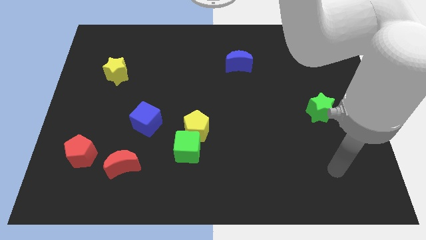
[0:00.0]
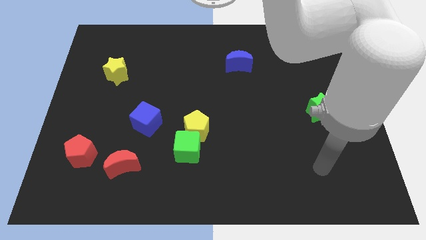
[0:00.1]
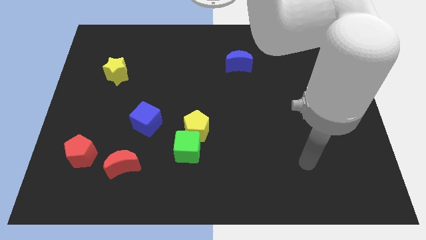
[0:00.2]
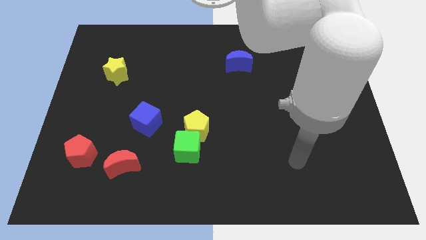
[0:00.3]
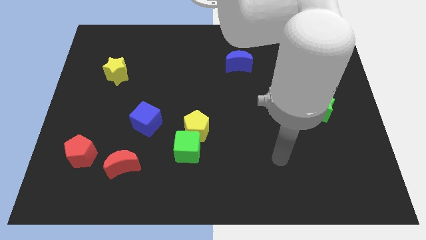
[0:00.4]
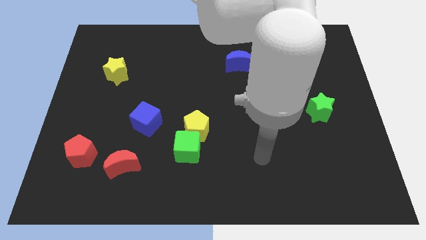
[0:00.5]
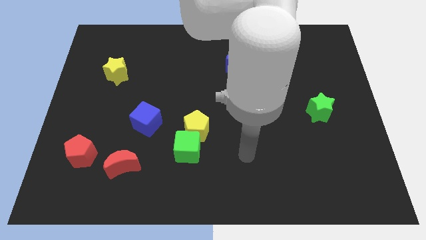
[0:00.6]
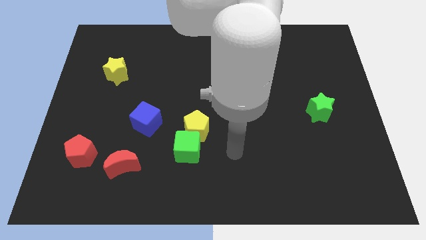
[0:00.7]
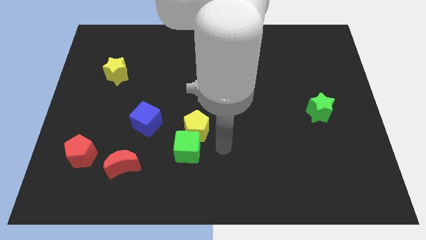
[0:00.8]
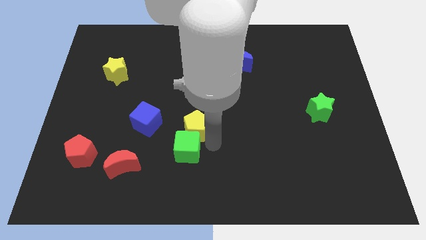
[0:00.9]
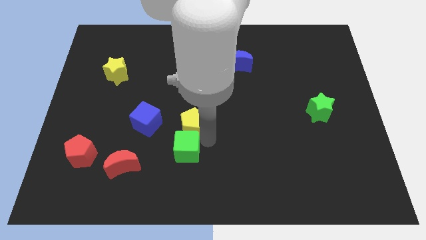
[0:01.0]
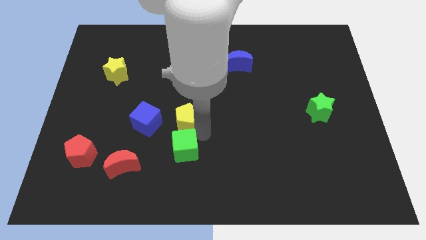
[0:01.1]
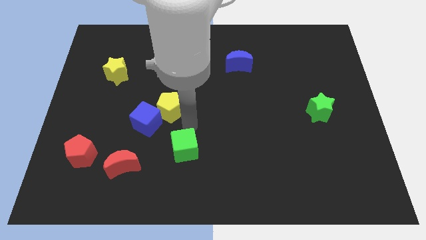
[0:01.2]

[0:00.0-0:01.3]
separate the green cube from the yellow pentagon

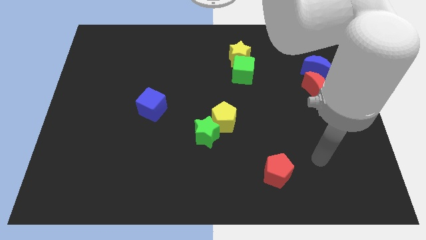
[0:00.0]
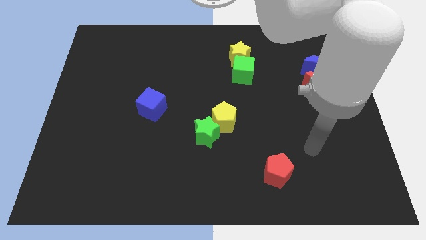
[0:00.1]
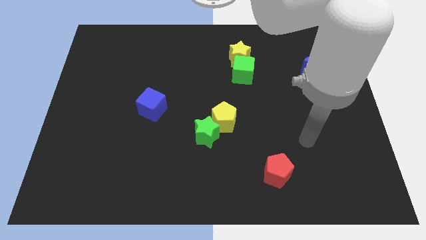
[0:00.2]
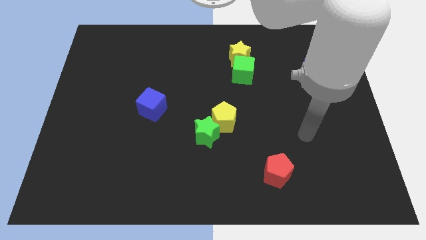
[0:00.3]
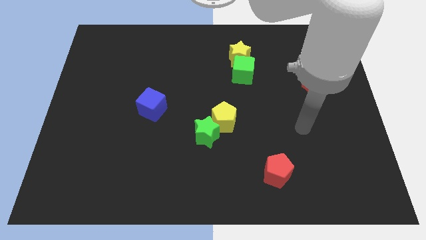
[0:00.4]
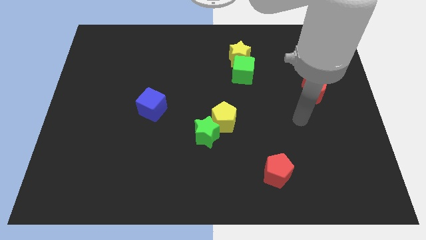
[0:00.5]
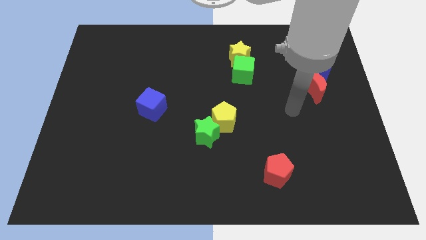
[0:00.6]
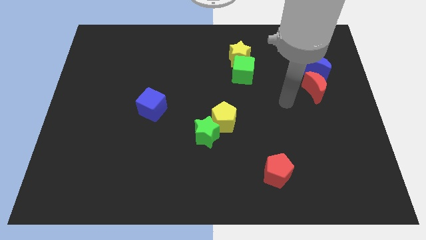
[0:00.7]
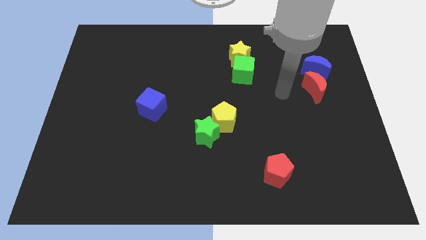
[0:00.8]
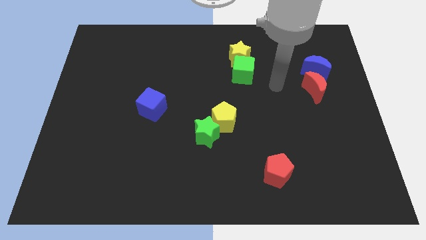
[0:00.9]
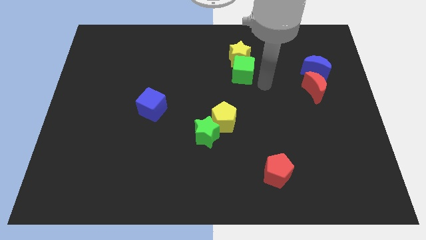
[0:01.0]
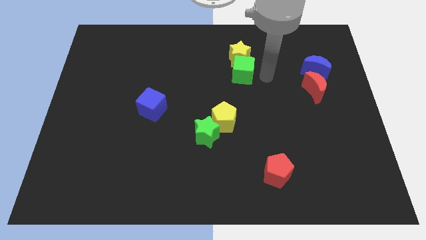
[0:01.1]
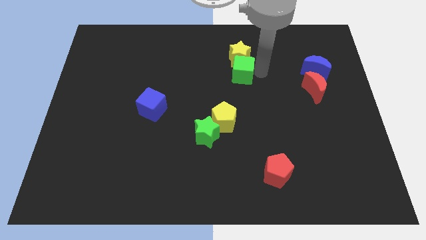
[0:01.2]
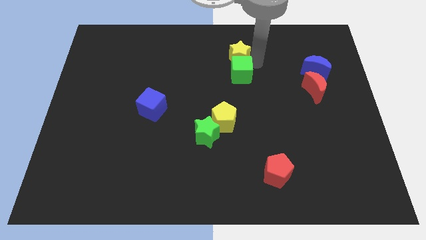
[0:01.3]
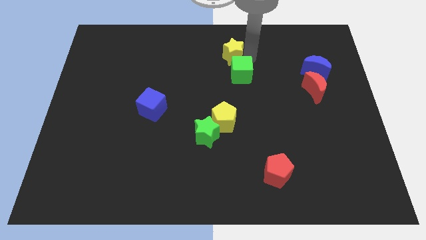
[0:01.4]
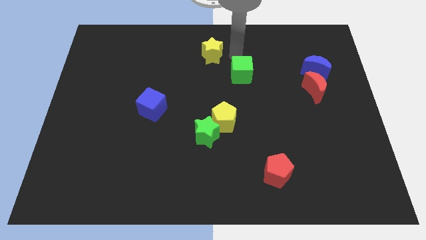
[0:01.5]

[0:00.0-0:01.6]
separate the green cube from the yellow star

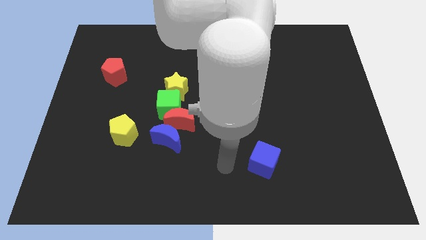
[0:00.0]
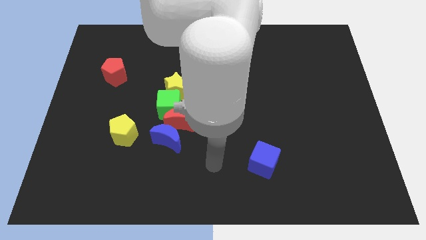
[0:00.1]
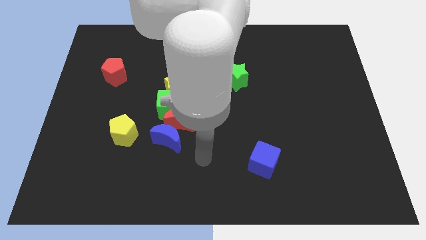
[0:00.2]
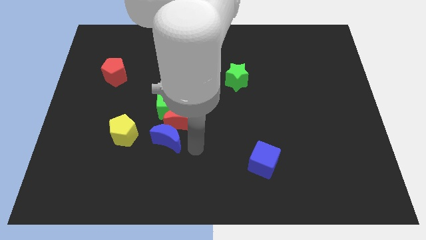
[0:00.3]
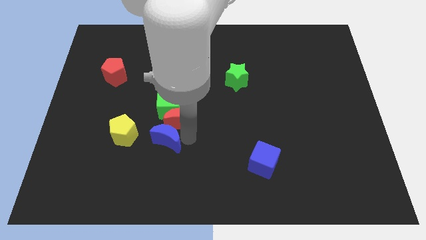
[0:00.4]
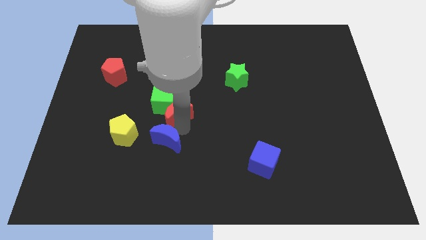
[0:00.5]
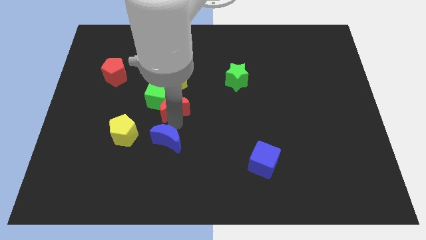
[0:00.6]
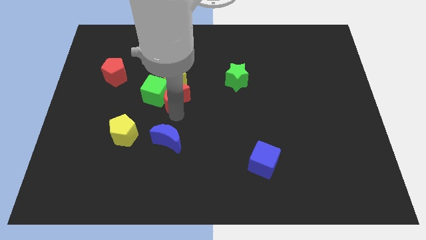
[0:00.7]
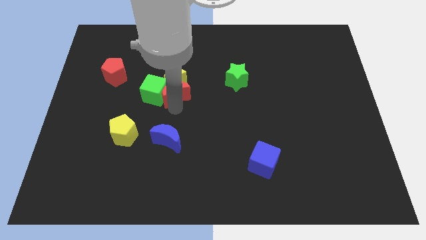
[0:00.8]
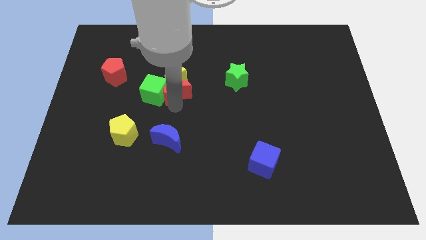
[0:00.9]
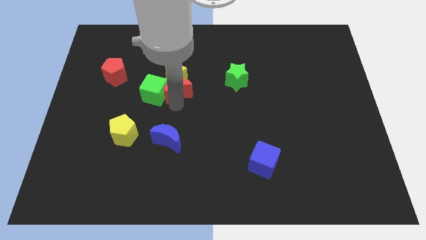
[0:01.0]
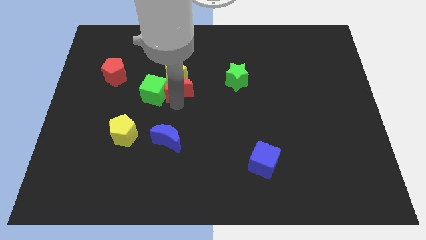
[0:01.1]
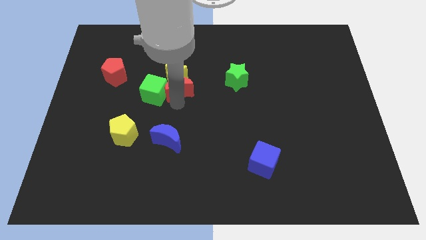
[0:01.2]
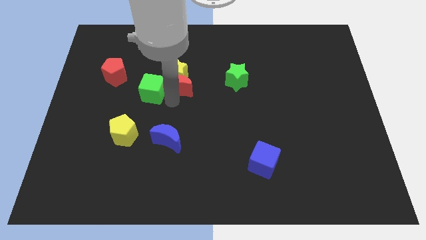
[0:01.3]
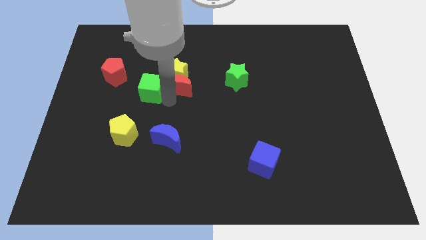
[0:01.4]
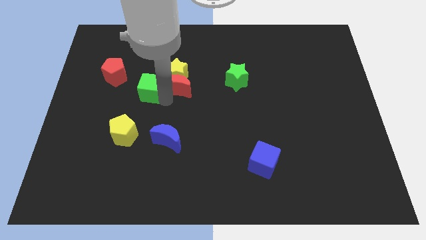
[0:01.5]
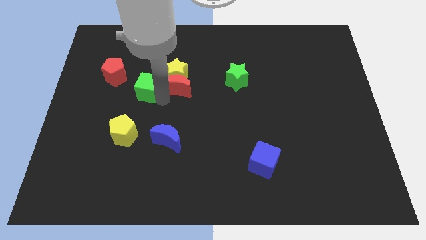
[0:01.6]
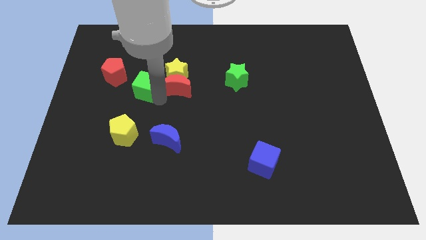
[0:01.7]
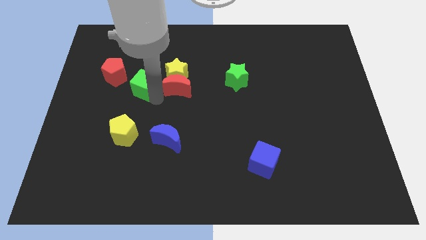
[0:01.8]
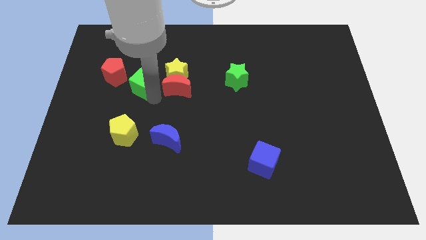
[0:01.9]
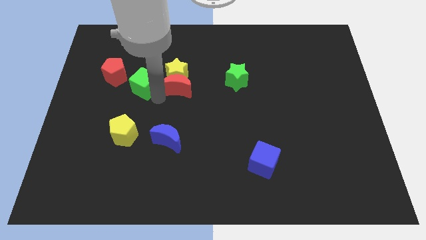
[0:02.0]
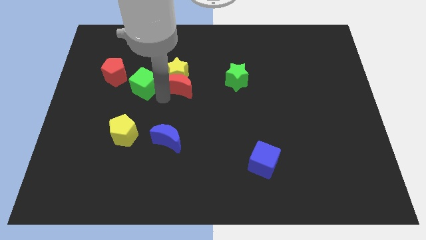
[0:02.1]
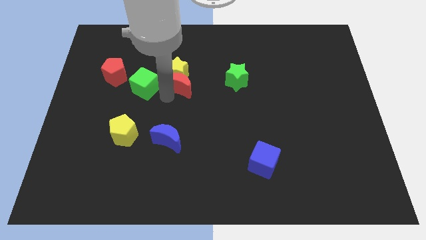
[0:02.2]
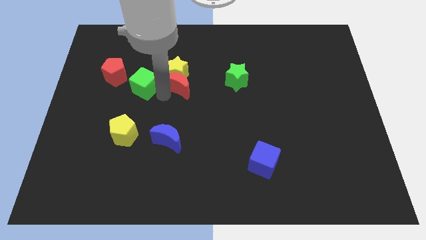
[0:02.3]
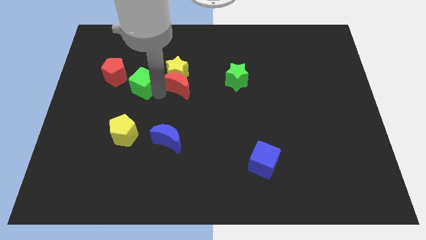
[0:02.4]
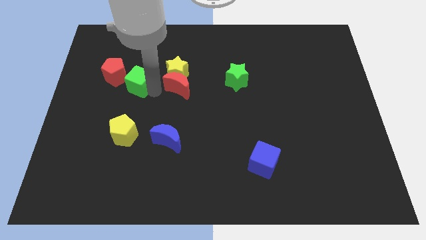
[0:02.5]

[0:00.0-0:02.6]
move the green cube away from the clump

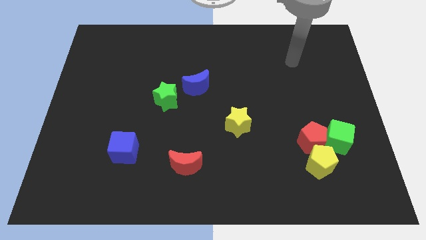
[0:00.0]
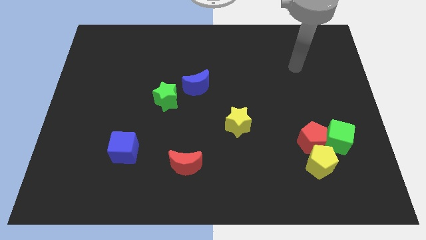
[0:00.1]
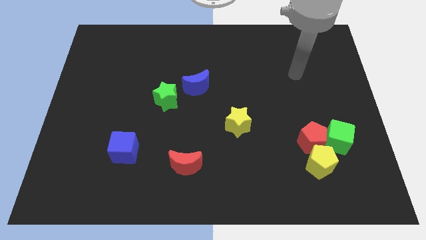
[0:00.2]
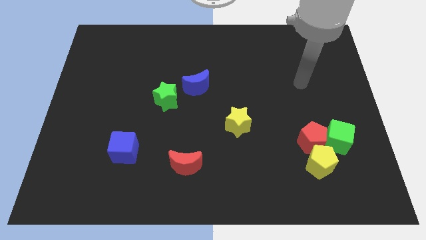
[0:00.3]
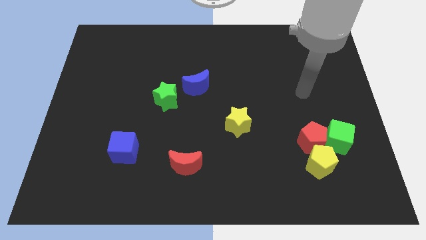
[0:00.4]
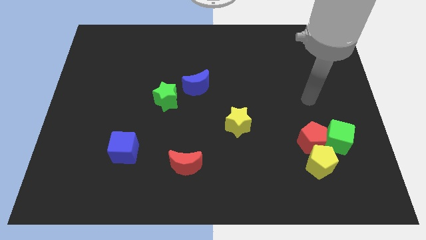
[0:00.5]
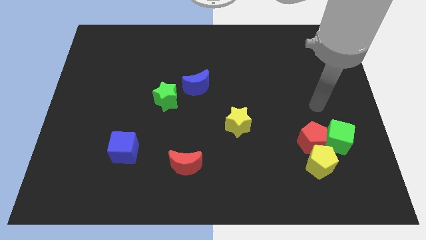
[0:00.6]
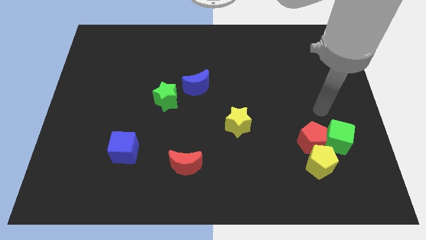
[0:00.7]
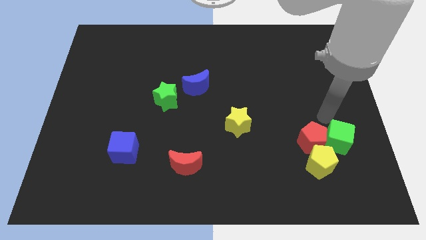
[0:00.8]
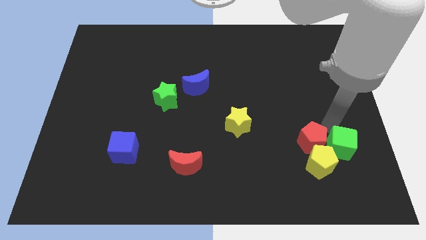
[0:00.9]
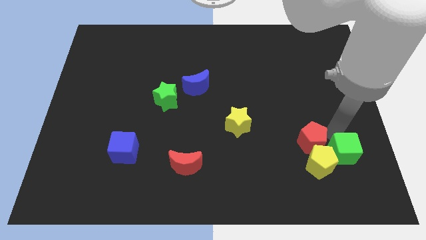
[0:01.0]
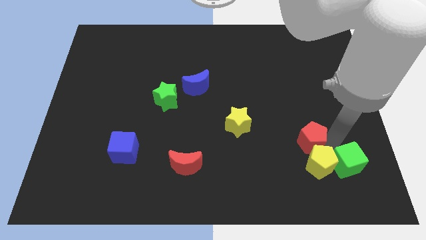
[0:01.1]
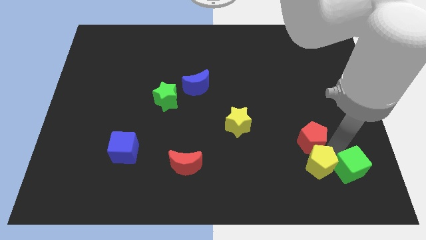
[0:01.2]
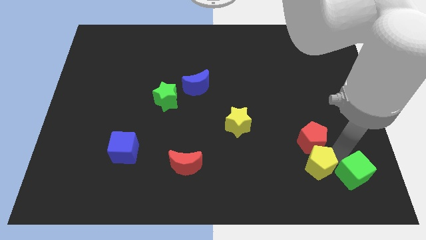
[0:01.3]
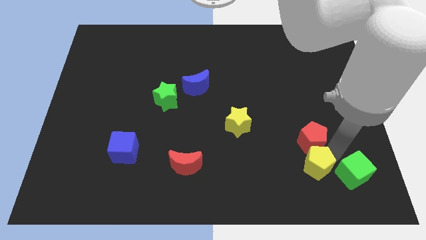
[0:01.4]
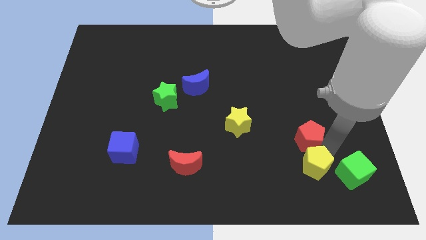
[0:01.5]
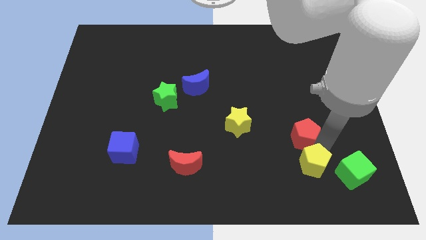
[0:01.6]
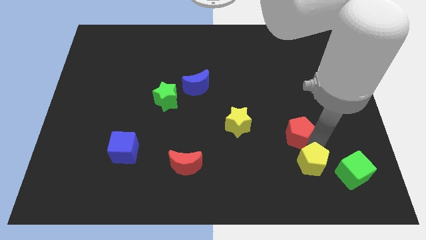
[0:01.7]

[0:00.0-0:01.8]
separate the red pentagon from the green cube and yellow pentagon

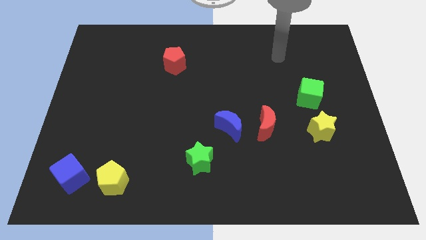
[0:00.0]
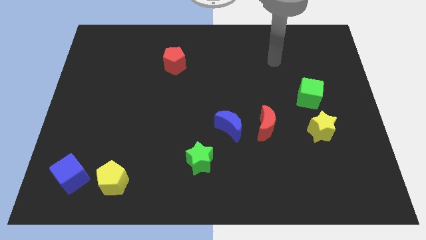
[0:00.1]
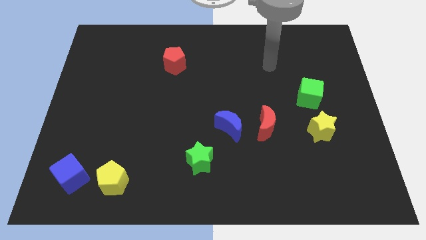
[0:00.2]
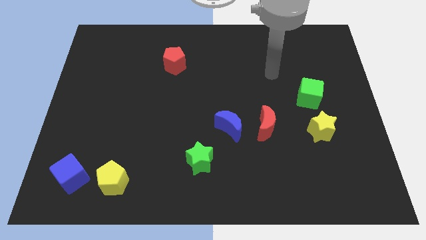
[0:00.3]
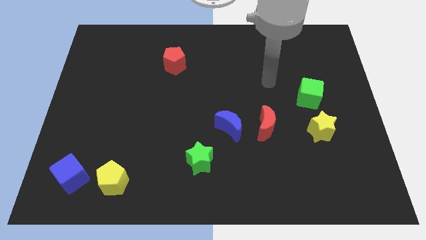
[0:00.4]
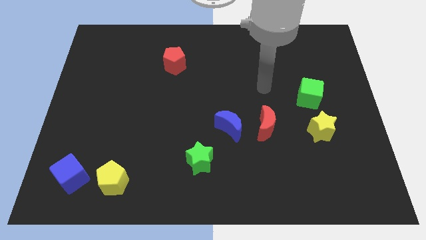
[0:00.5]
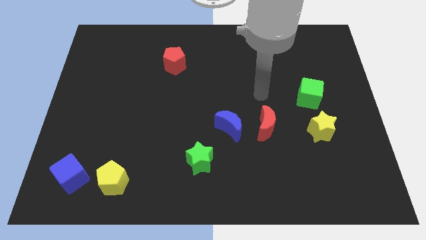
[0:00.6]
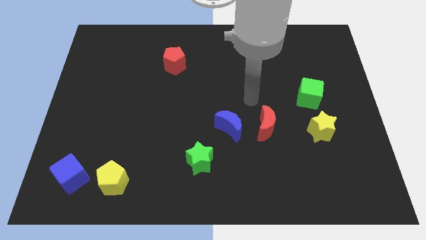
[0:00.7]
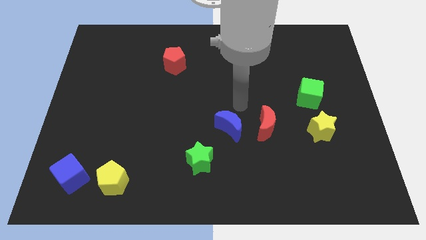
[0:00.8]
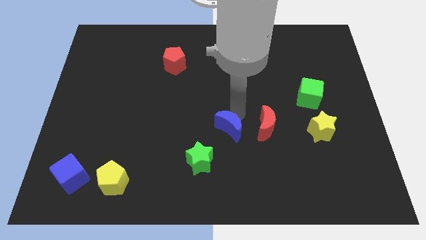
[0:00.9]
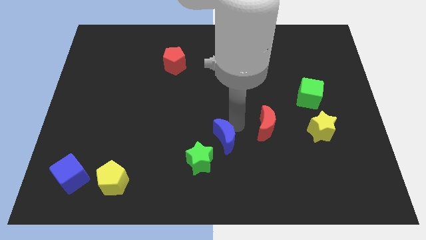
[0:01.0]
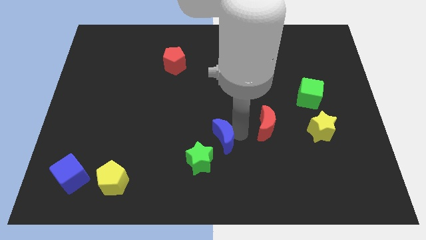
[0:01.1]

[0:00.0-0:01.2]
move the red moon away from the blue moon

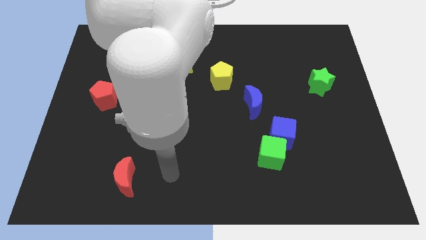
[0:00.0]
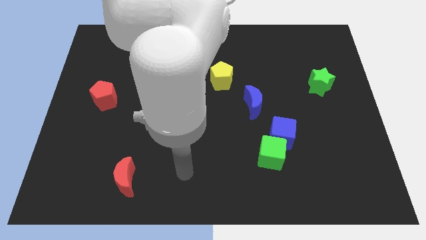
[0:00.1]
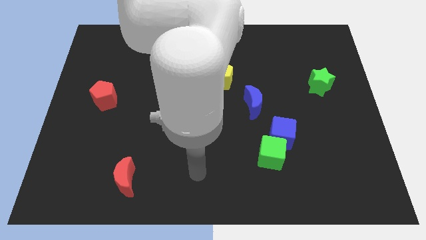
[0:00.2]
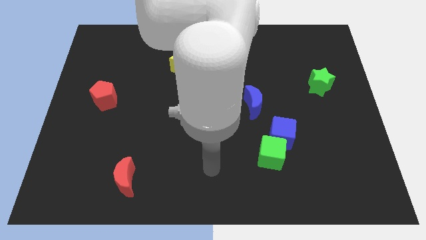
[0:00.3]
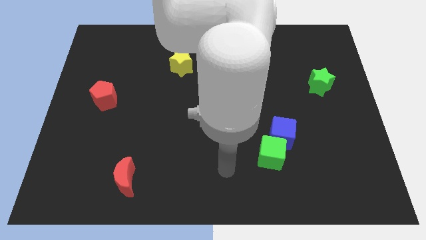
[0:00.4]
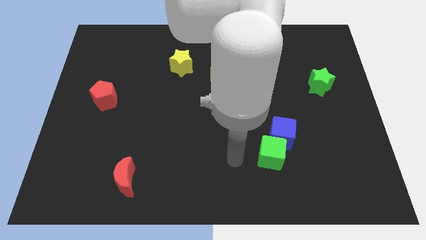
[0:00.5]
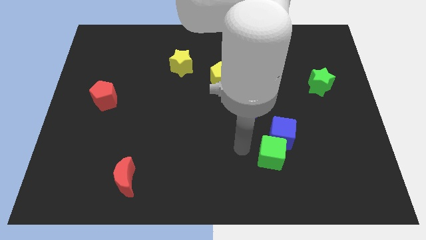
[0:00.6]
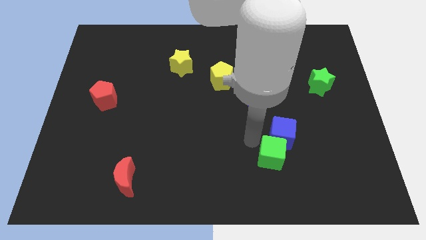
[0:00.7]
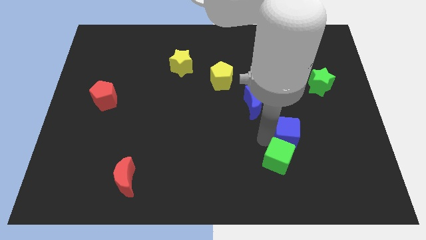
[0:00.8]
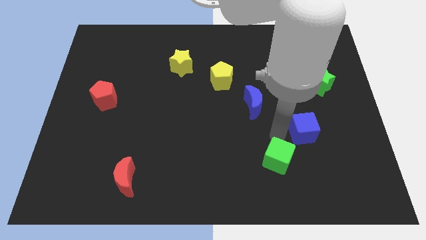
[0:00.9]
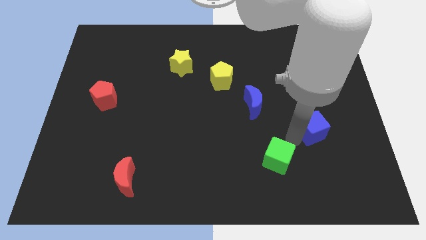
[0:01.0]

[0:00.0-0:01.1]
separate the green cube from the blue cube
